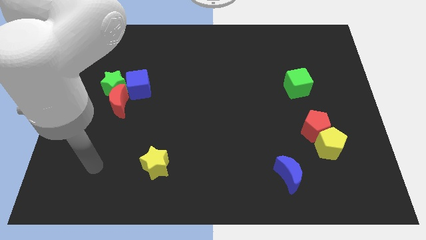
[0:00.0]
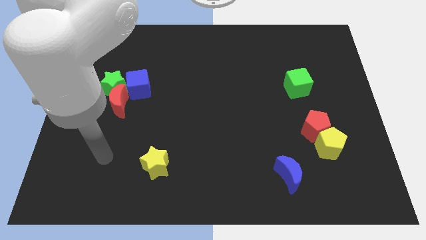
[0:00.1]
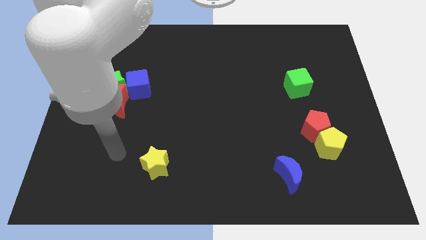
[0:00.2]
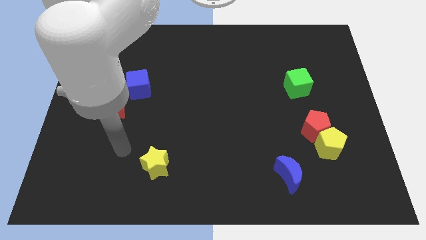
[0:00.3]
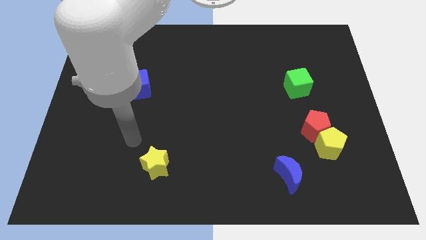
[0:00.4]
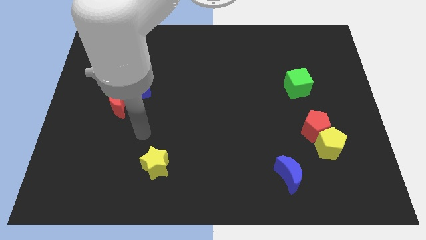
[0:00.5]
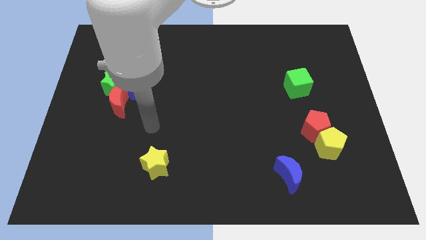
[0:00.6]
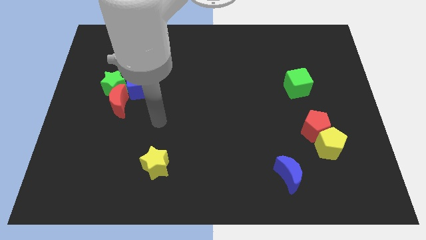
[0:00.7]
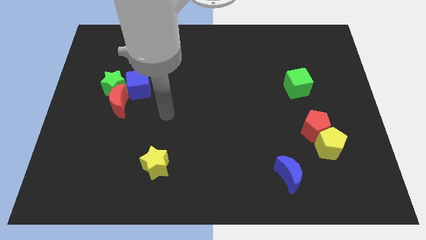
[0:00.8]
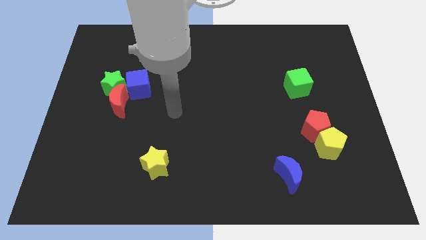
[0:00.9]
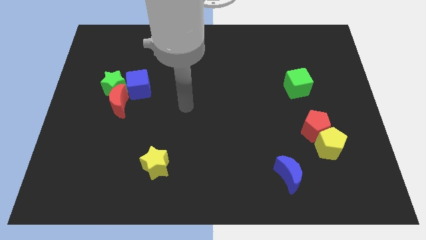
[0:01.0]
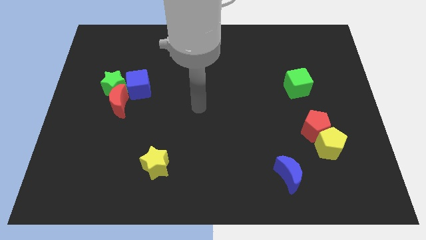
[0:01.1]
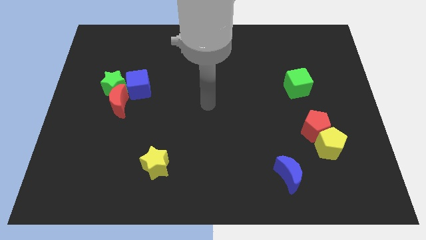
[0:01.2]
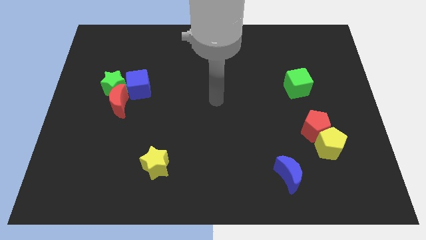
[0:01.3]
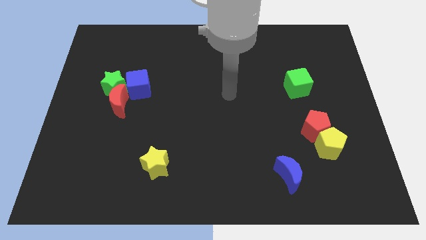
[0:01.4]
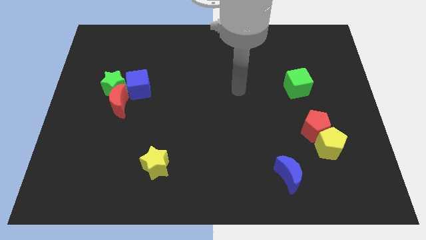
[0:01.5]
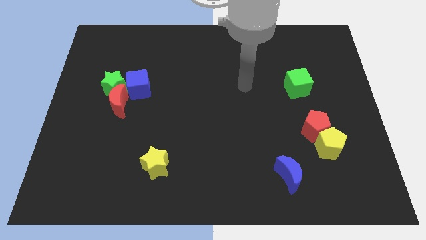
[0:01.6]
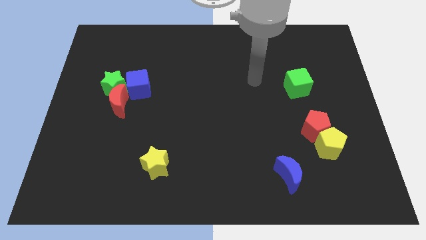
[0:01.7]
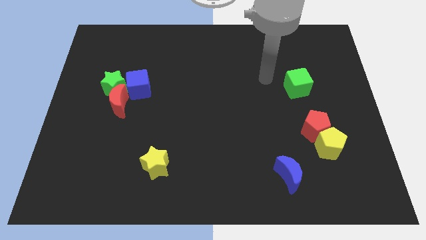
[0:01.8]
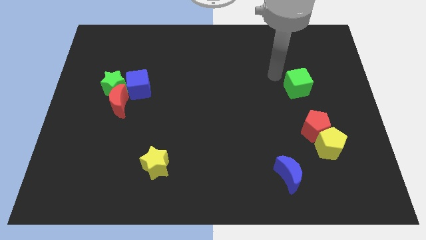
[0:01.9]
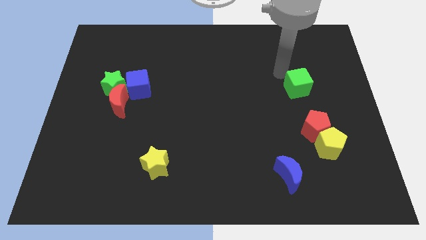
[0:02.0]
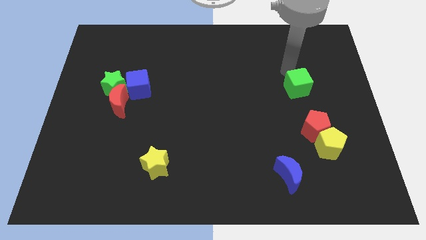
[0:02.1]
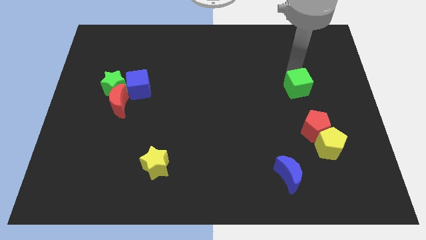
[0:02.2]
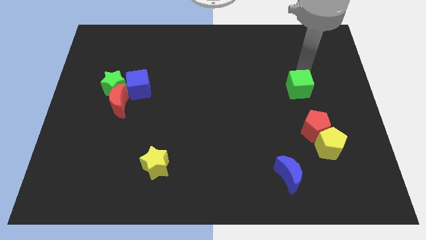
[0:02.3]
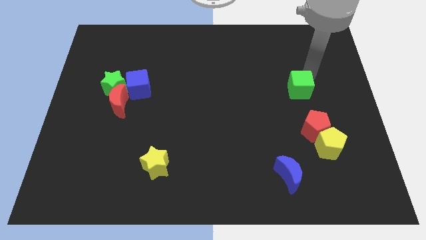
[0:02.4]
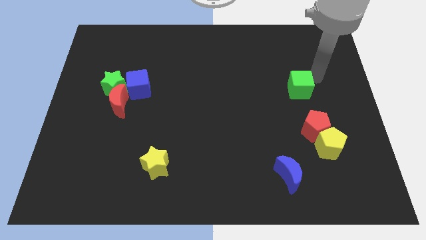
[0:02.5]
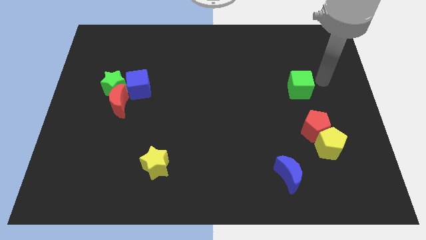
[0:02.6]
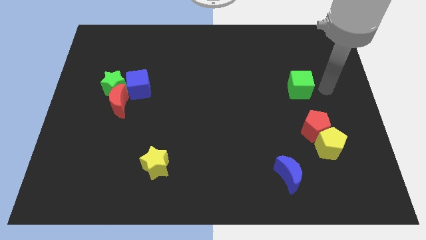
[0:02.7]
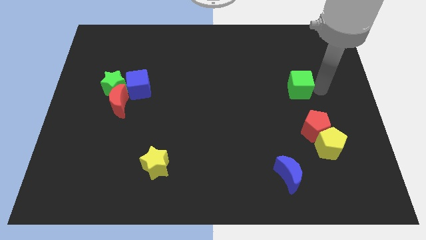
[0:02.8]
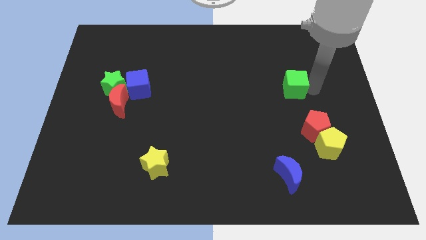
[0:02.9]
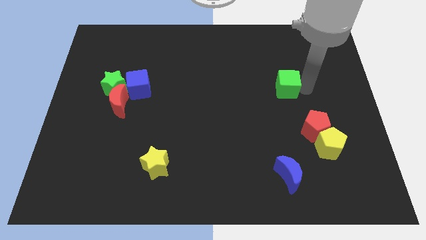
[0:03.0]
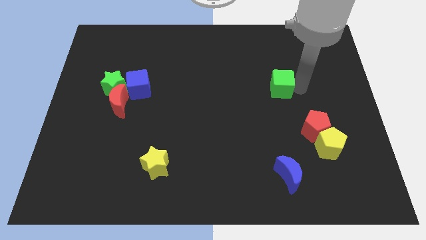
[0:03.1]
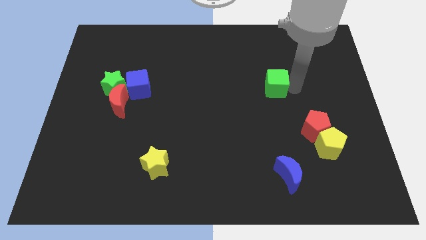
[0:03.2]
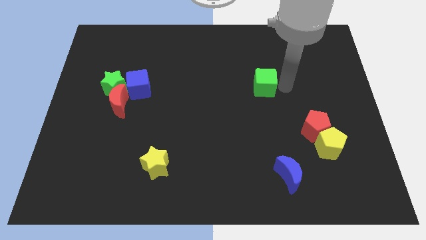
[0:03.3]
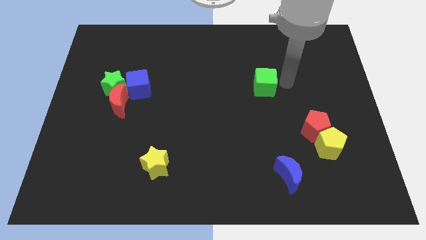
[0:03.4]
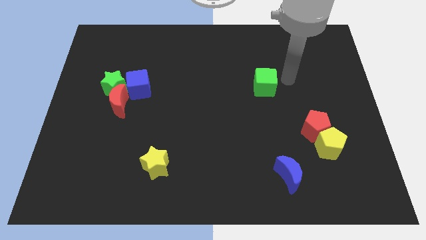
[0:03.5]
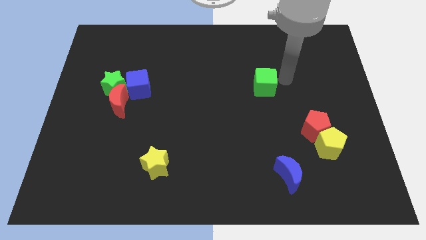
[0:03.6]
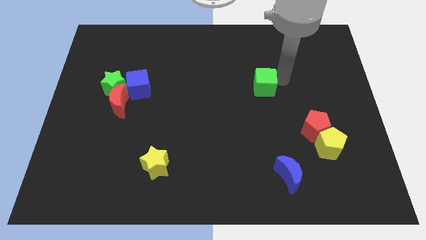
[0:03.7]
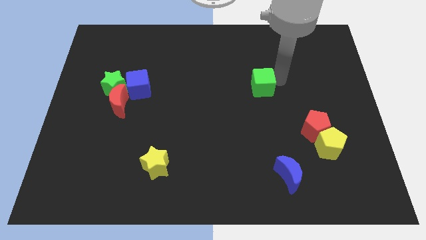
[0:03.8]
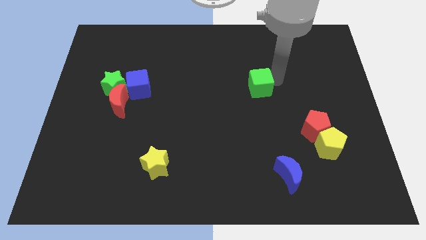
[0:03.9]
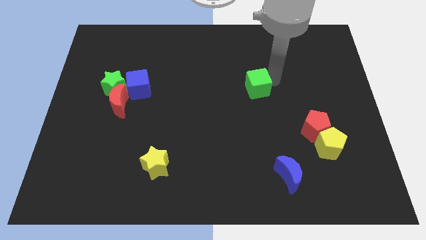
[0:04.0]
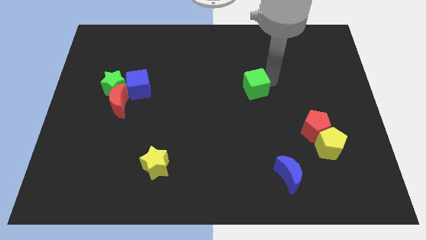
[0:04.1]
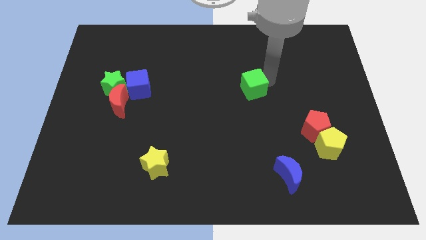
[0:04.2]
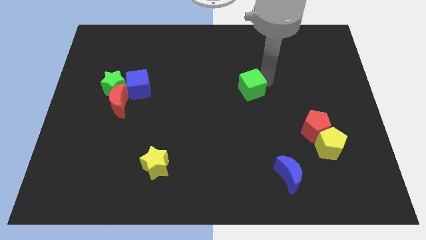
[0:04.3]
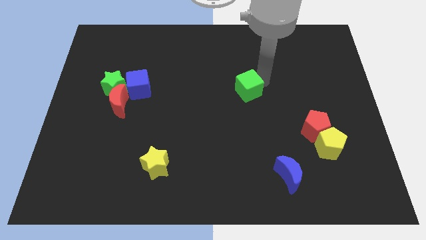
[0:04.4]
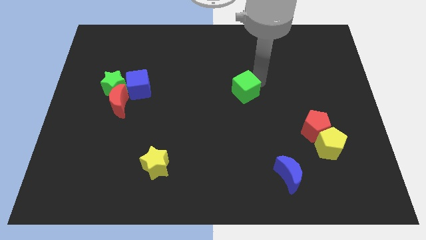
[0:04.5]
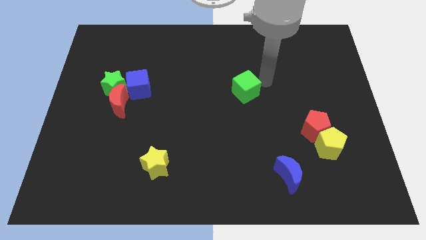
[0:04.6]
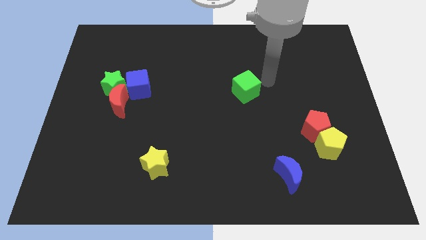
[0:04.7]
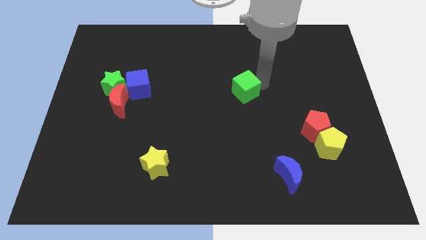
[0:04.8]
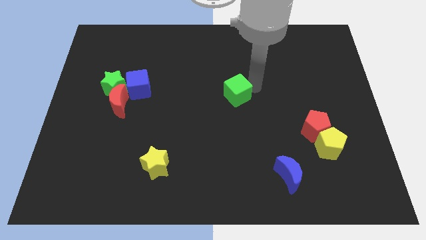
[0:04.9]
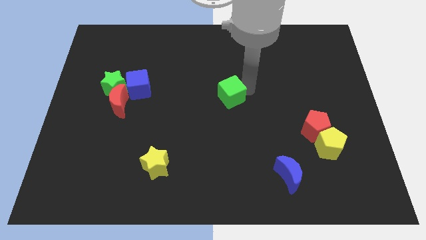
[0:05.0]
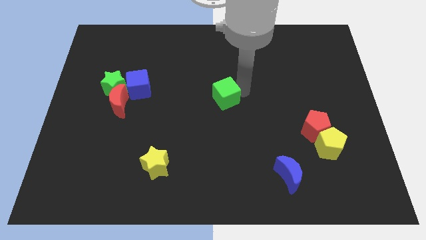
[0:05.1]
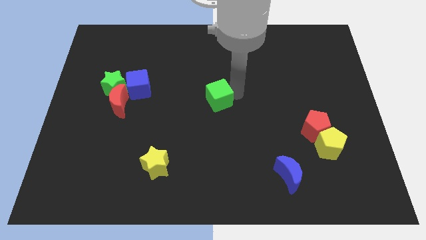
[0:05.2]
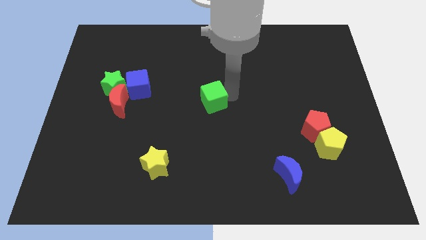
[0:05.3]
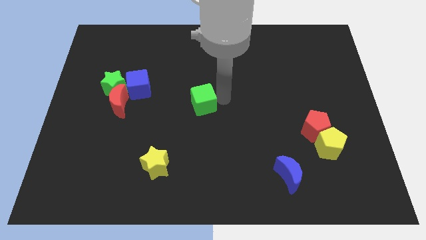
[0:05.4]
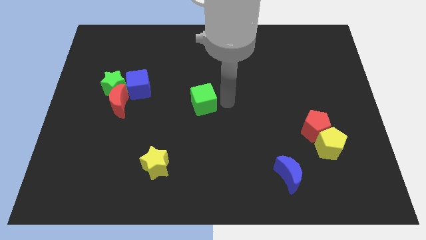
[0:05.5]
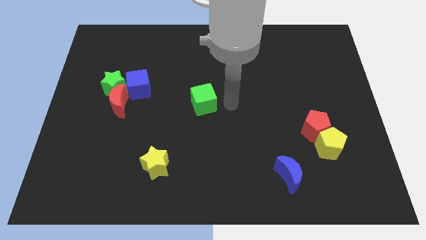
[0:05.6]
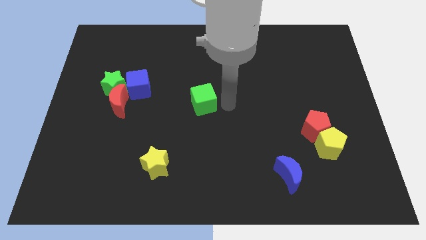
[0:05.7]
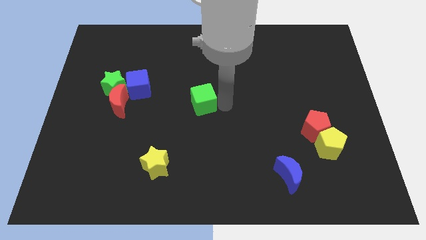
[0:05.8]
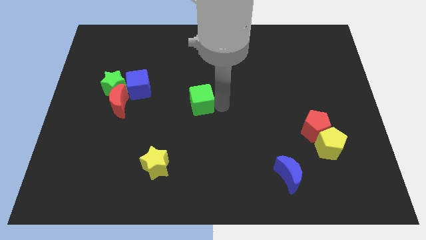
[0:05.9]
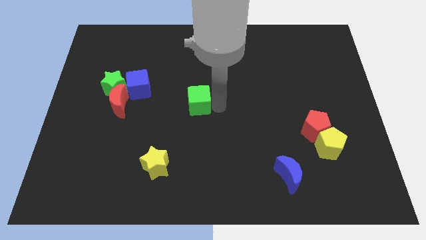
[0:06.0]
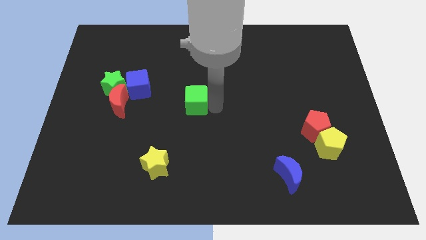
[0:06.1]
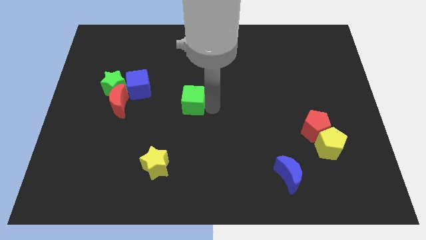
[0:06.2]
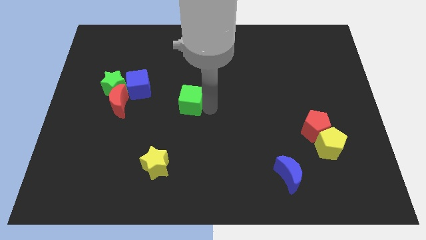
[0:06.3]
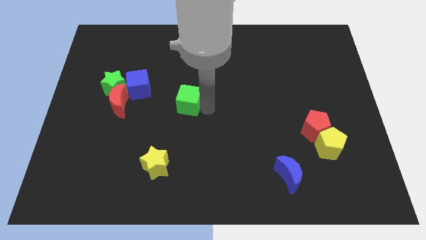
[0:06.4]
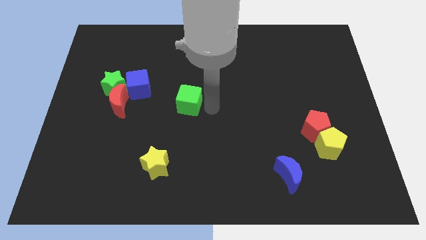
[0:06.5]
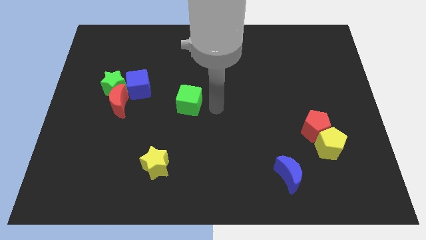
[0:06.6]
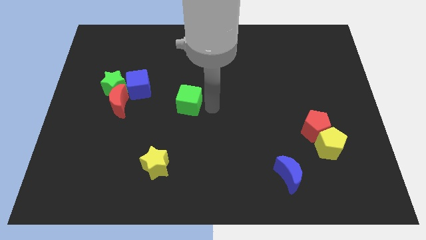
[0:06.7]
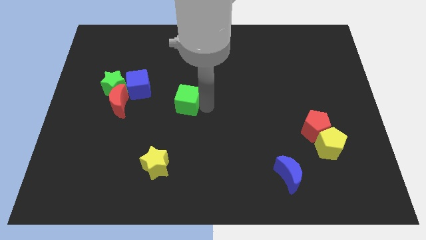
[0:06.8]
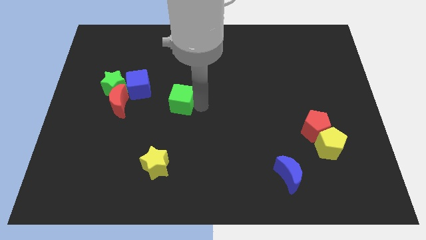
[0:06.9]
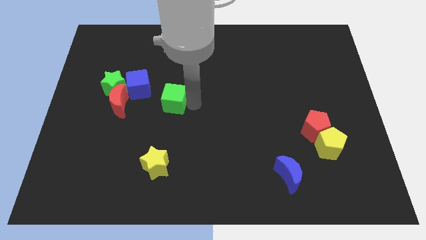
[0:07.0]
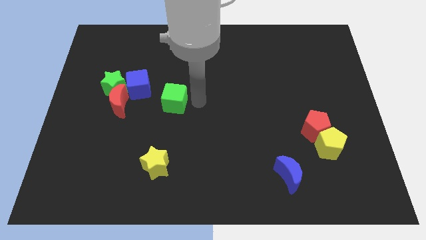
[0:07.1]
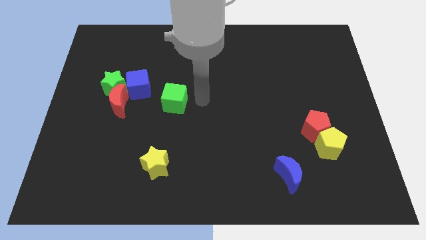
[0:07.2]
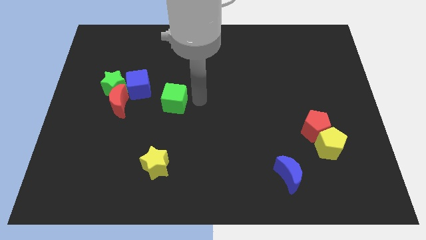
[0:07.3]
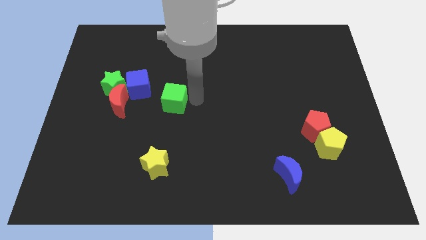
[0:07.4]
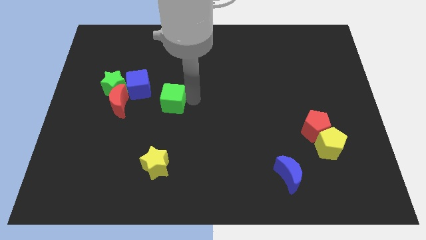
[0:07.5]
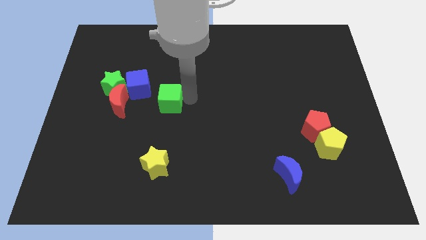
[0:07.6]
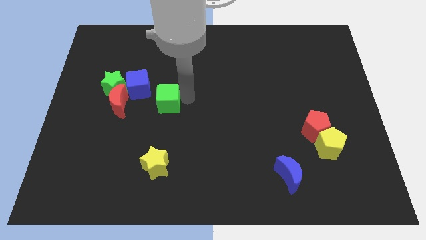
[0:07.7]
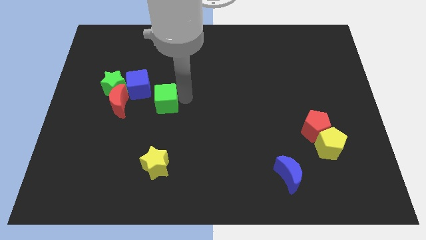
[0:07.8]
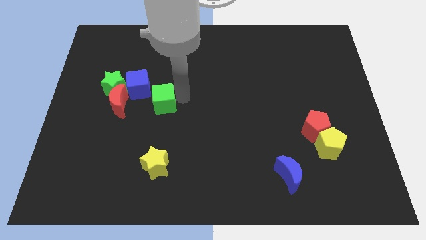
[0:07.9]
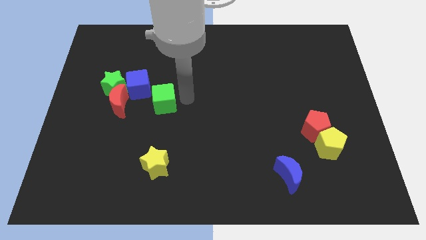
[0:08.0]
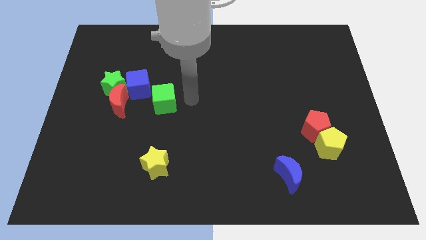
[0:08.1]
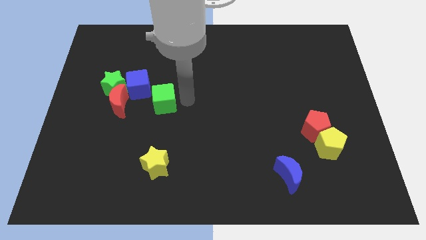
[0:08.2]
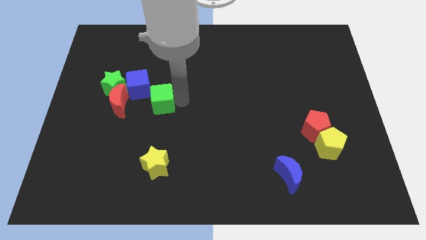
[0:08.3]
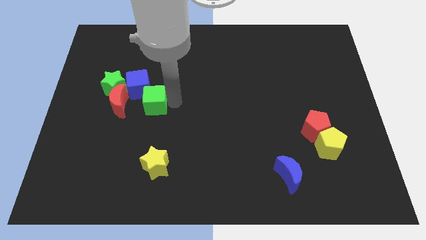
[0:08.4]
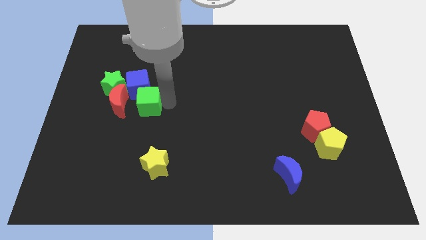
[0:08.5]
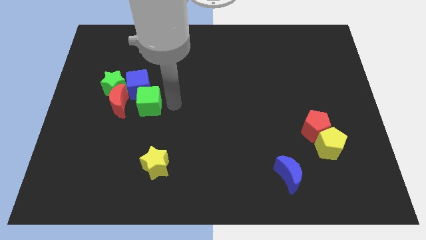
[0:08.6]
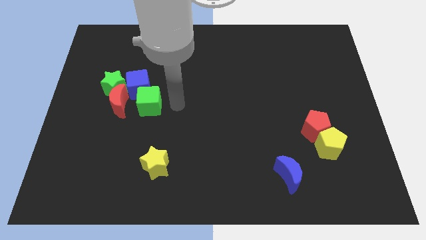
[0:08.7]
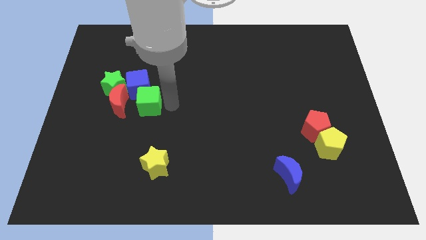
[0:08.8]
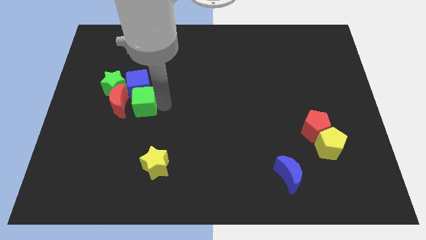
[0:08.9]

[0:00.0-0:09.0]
put the green cube towards the red moon
